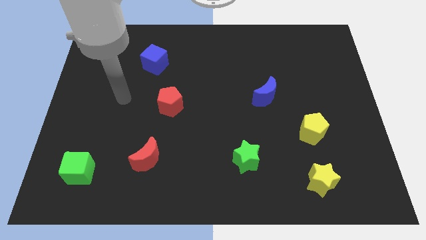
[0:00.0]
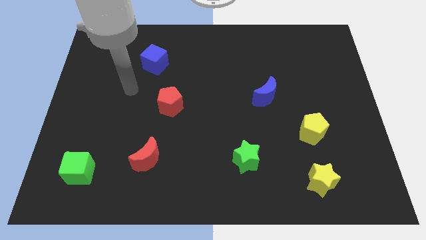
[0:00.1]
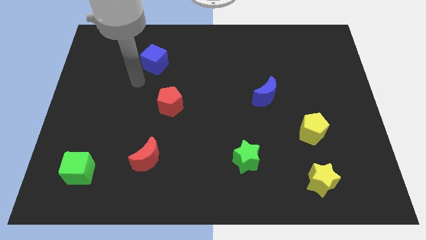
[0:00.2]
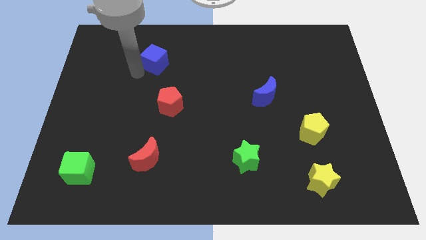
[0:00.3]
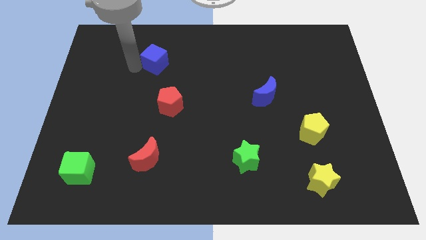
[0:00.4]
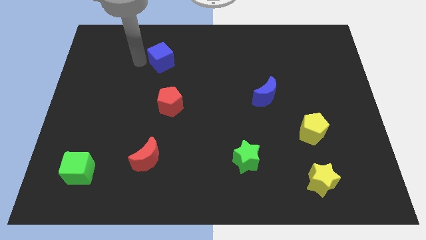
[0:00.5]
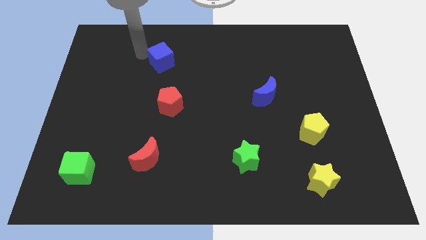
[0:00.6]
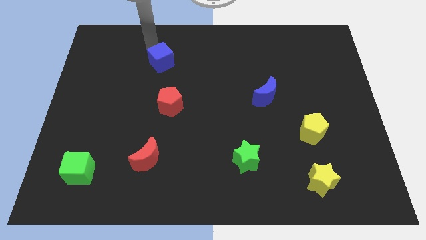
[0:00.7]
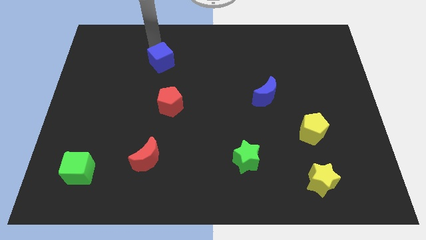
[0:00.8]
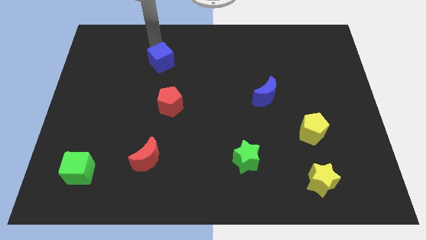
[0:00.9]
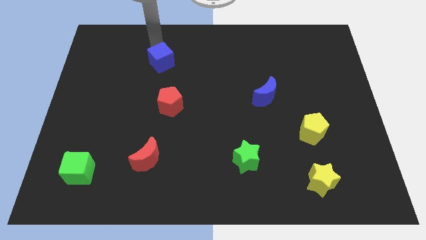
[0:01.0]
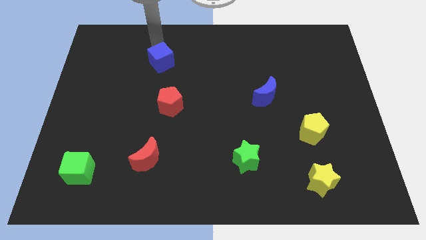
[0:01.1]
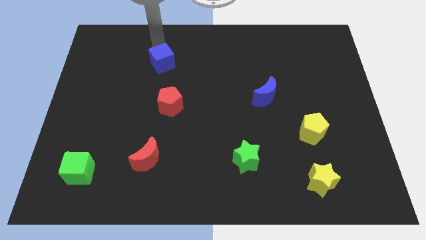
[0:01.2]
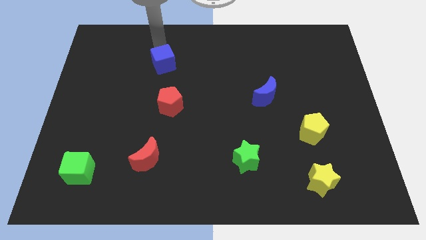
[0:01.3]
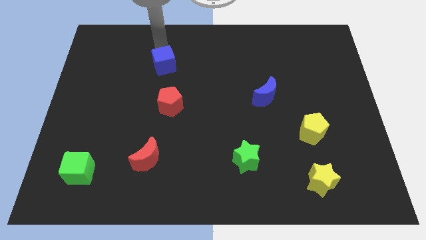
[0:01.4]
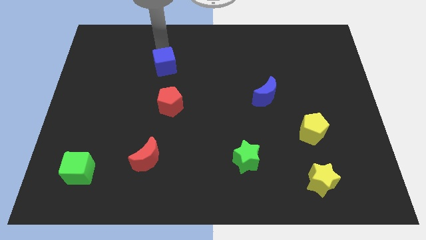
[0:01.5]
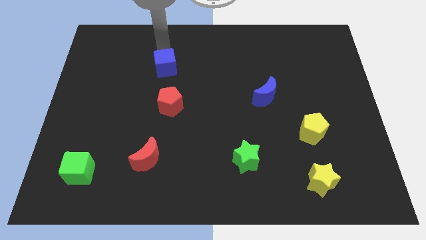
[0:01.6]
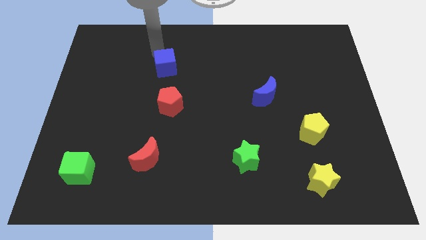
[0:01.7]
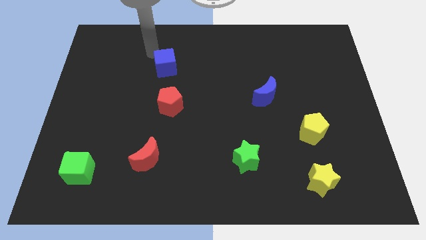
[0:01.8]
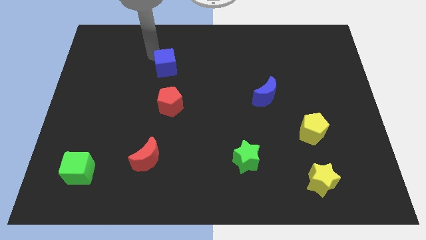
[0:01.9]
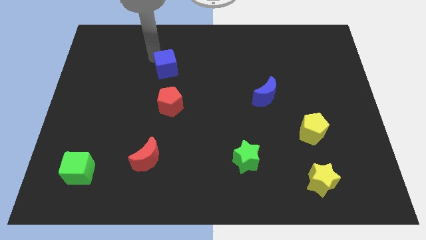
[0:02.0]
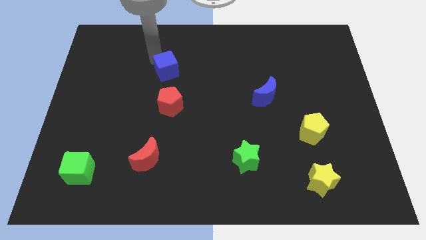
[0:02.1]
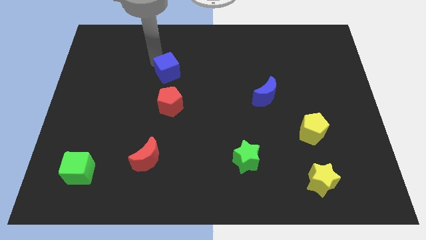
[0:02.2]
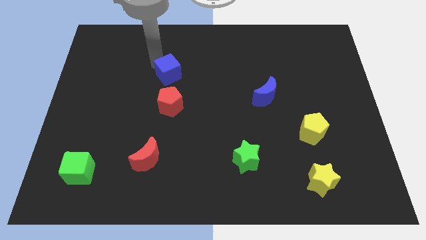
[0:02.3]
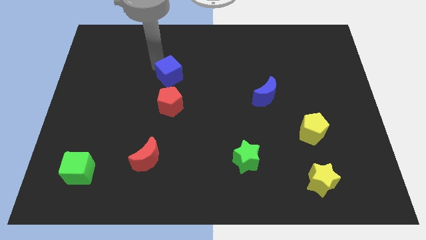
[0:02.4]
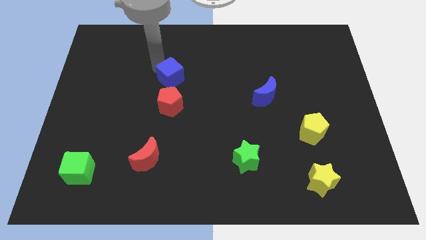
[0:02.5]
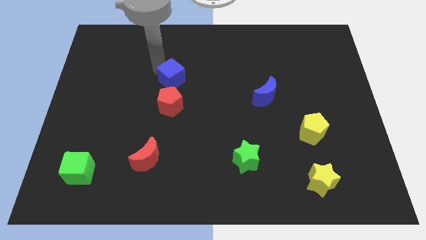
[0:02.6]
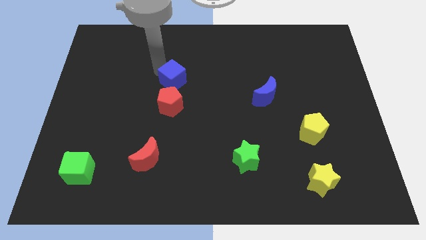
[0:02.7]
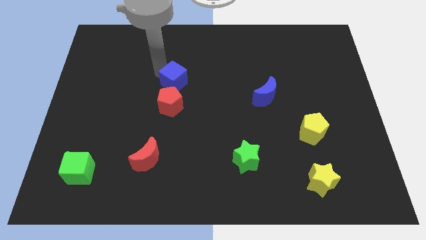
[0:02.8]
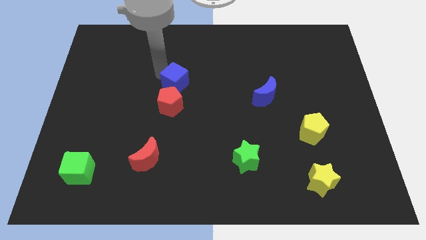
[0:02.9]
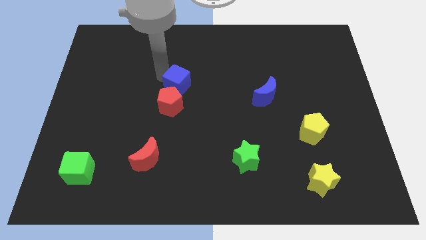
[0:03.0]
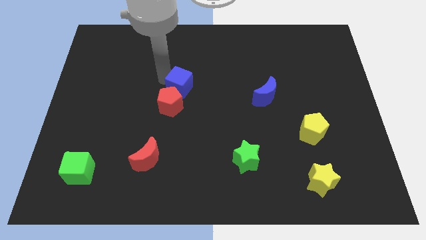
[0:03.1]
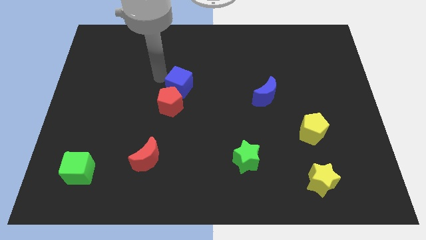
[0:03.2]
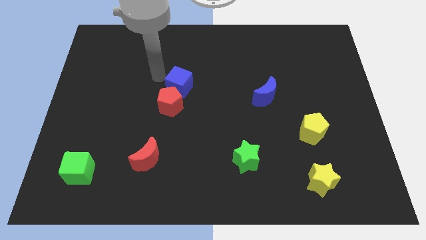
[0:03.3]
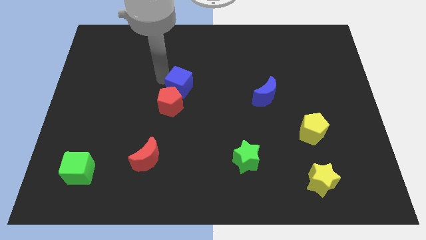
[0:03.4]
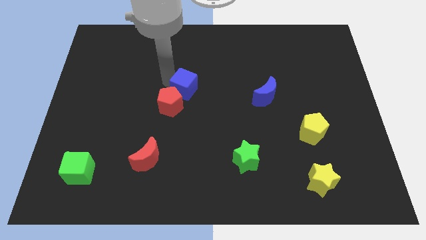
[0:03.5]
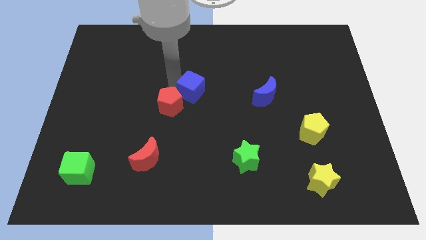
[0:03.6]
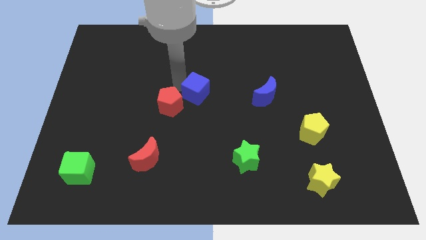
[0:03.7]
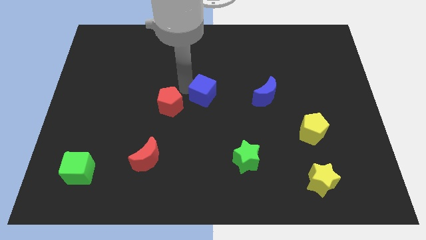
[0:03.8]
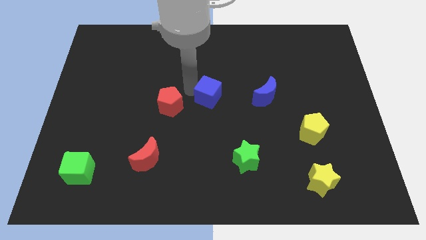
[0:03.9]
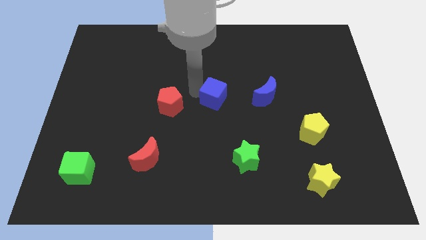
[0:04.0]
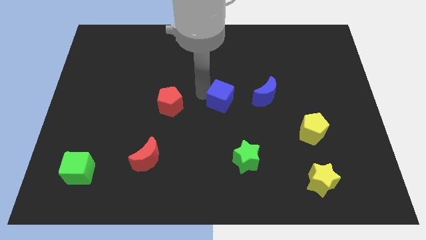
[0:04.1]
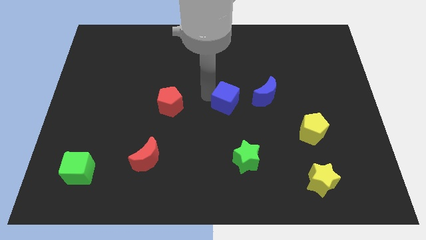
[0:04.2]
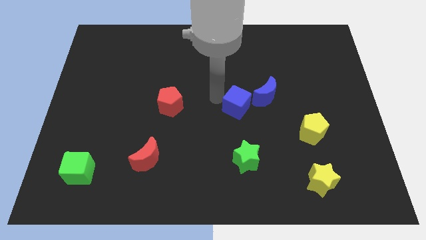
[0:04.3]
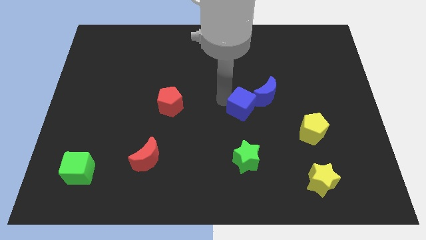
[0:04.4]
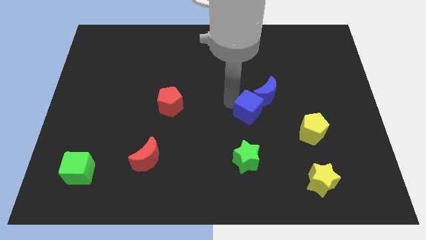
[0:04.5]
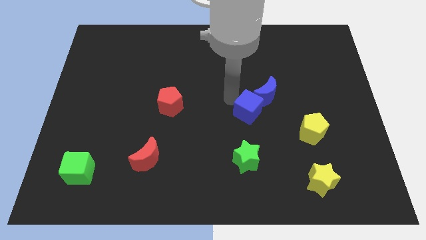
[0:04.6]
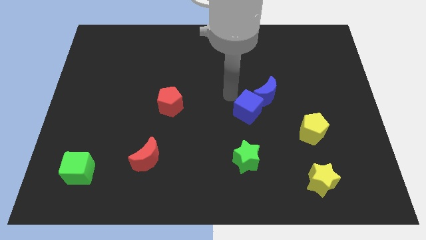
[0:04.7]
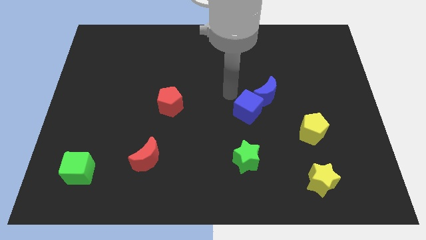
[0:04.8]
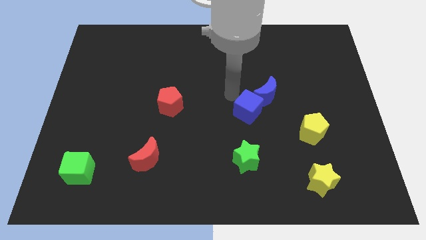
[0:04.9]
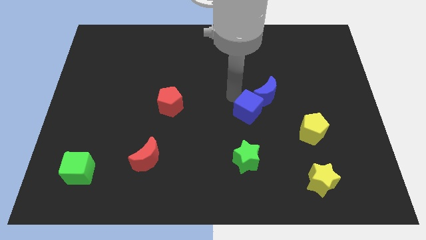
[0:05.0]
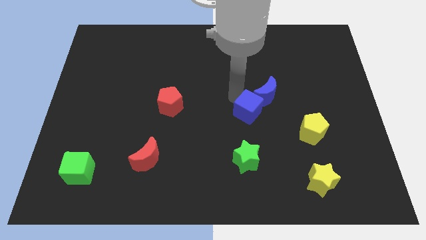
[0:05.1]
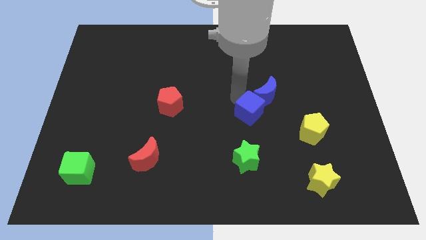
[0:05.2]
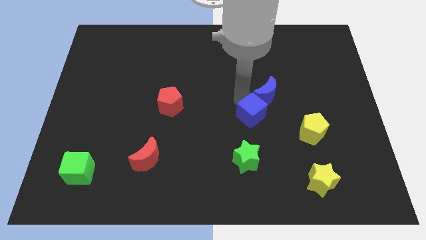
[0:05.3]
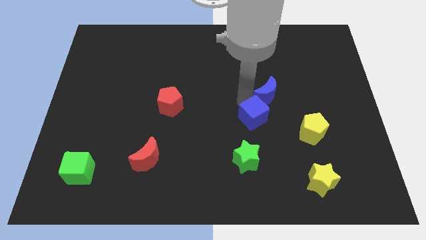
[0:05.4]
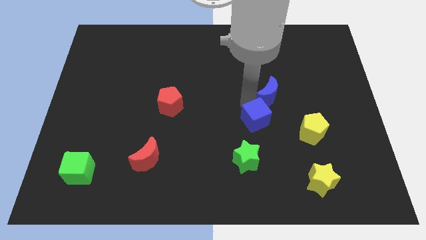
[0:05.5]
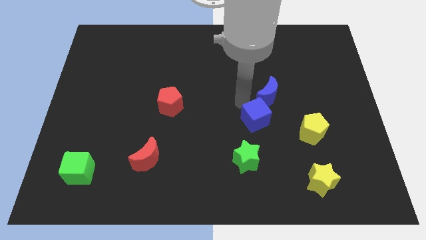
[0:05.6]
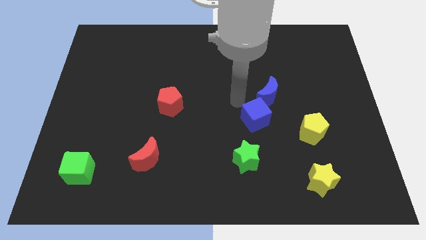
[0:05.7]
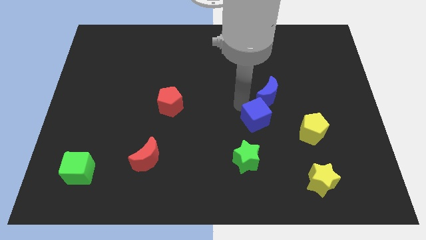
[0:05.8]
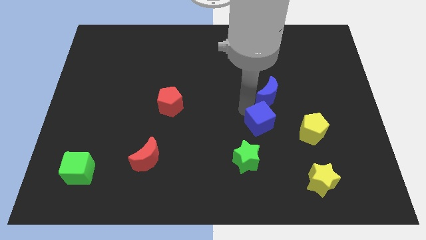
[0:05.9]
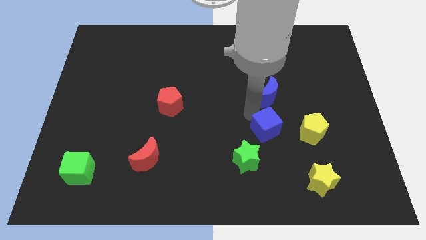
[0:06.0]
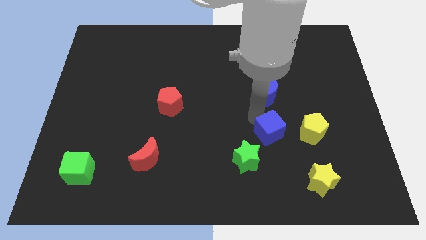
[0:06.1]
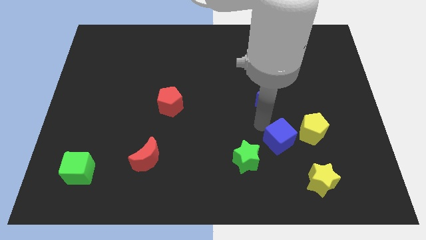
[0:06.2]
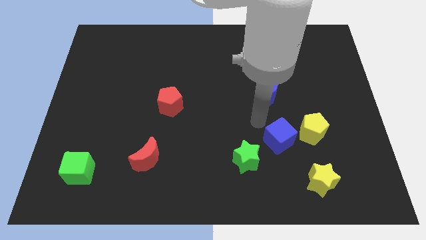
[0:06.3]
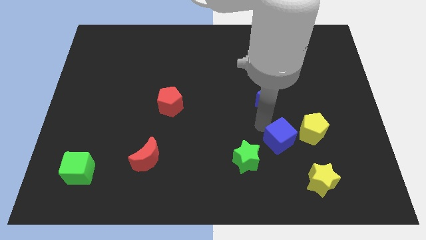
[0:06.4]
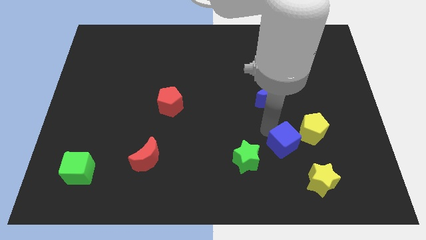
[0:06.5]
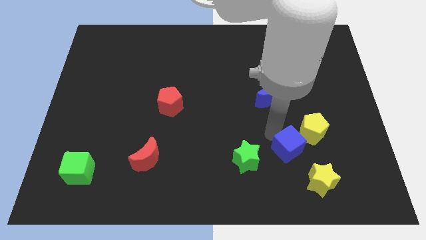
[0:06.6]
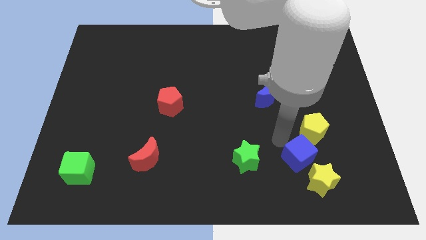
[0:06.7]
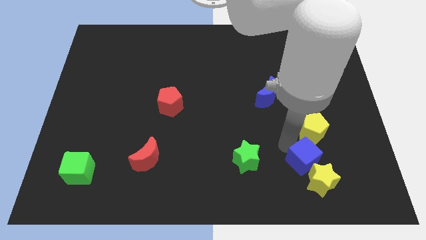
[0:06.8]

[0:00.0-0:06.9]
put the blue cube next to the yellow star
